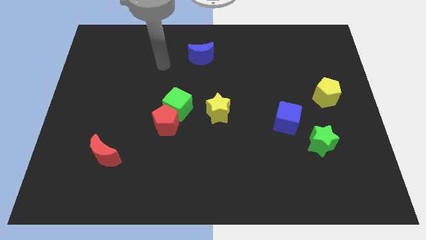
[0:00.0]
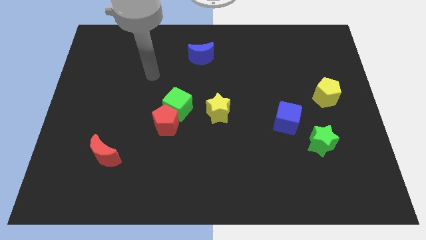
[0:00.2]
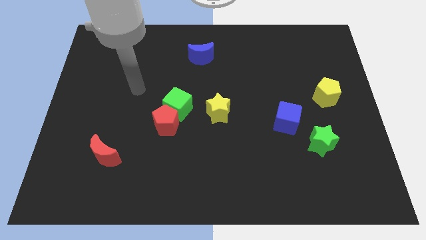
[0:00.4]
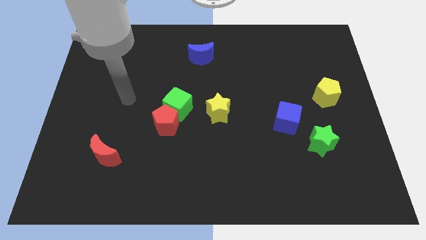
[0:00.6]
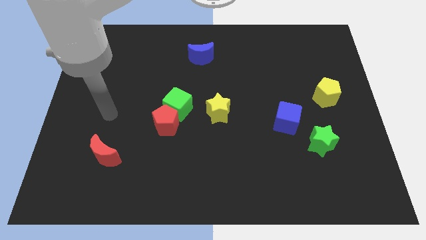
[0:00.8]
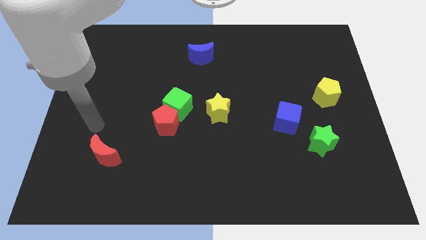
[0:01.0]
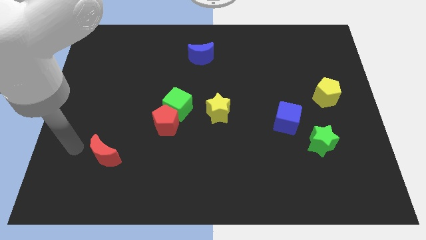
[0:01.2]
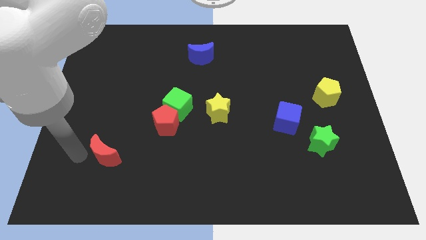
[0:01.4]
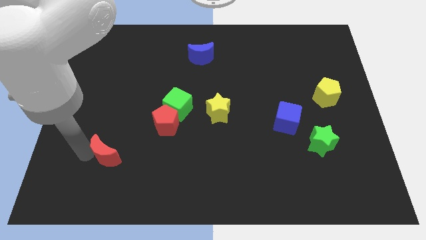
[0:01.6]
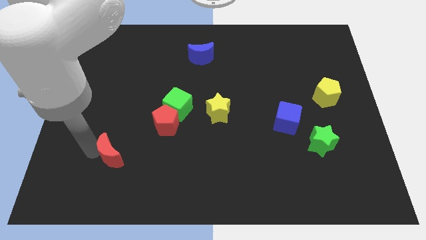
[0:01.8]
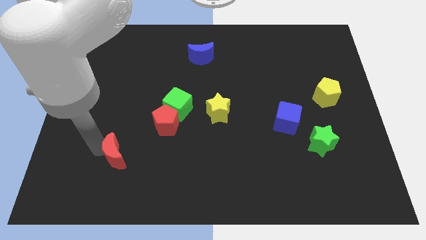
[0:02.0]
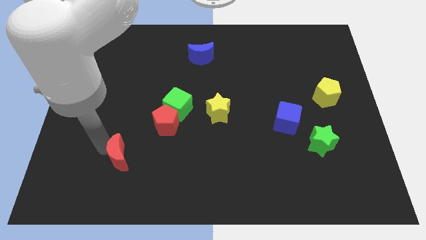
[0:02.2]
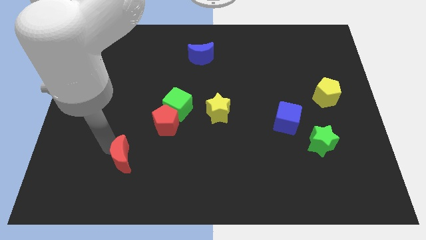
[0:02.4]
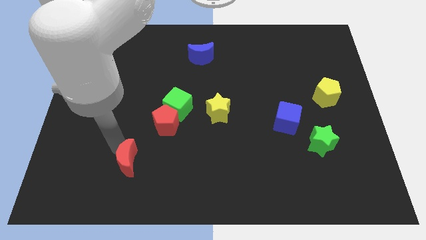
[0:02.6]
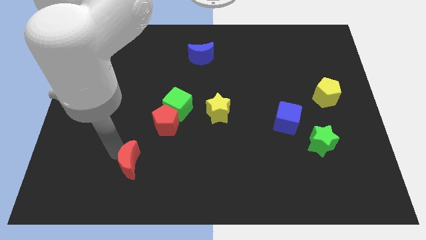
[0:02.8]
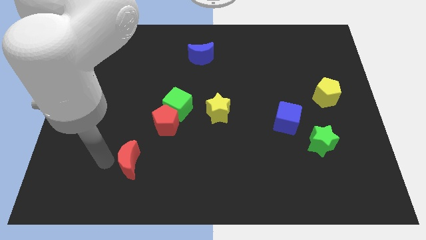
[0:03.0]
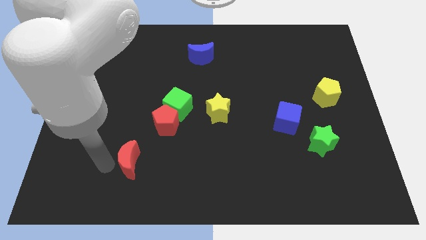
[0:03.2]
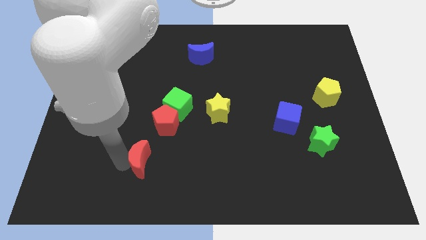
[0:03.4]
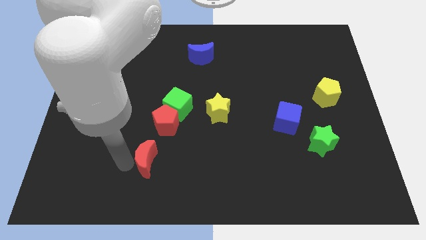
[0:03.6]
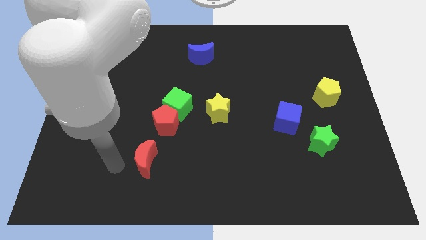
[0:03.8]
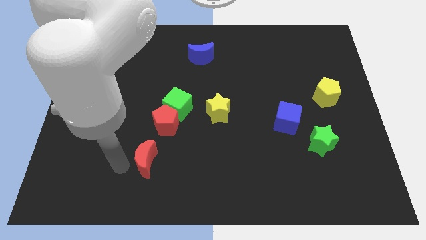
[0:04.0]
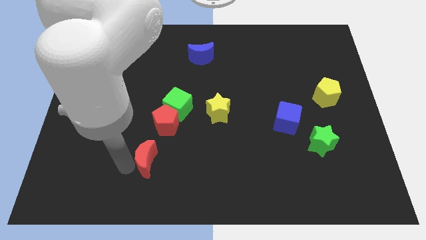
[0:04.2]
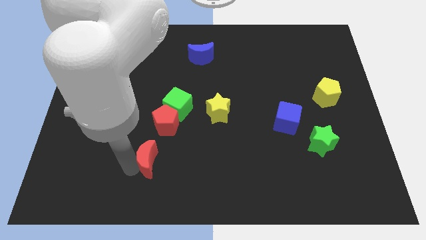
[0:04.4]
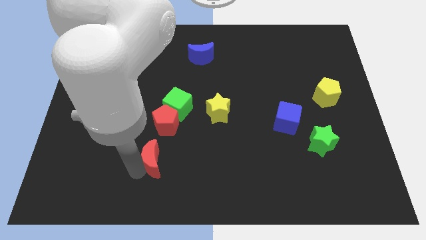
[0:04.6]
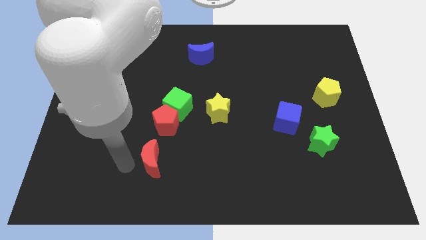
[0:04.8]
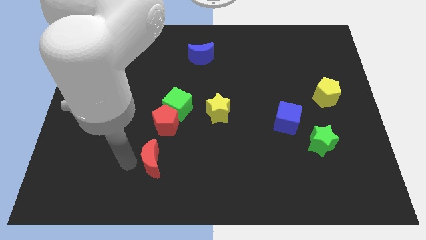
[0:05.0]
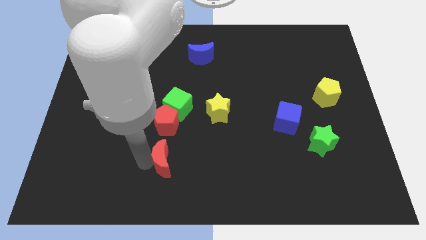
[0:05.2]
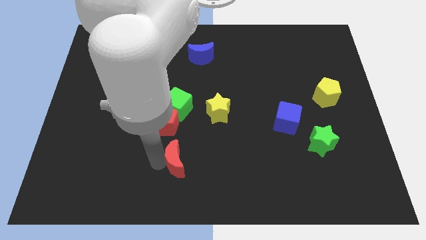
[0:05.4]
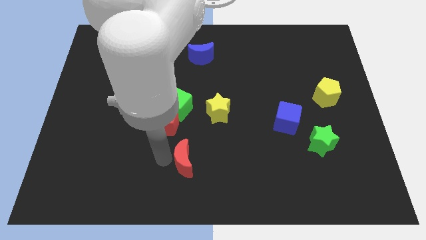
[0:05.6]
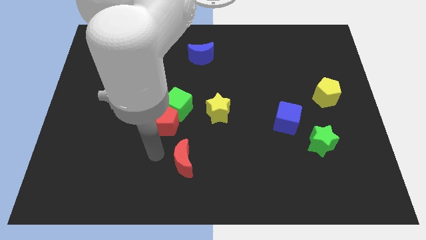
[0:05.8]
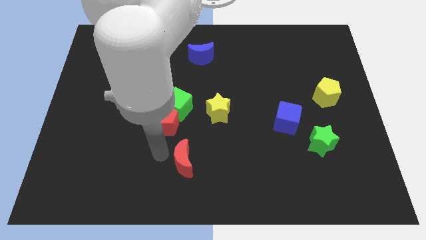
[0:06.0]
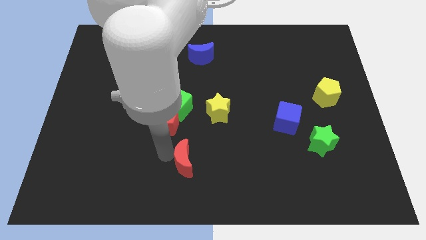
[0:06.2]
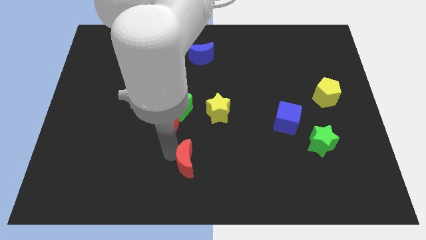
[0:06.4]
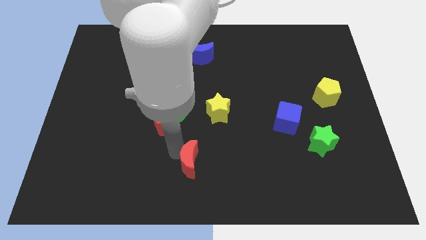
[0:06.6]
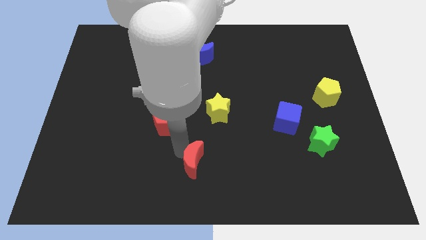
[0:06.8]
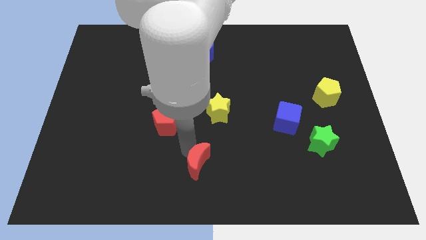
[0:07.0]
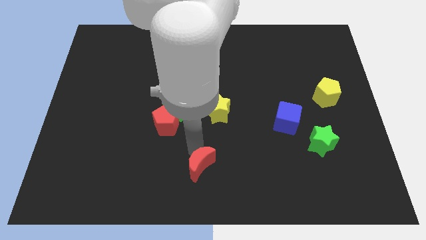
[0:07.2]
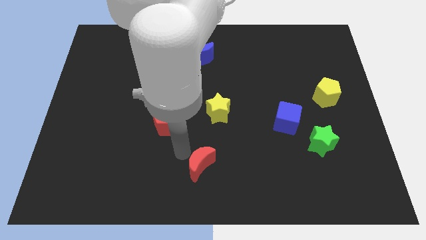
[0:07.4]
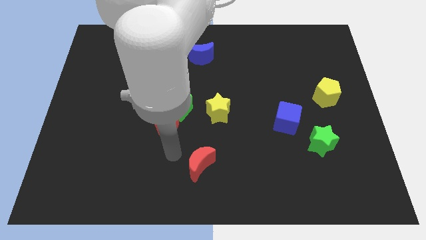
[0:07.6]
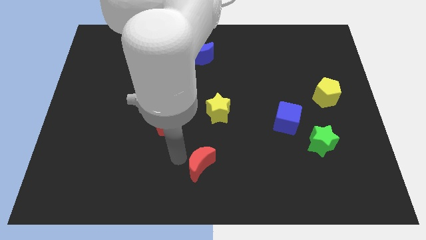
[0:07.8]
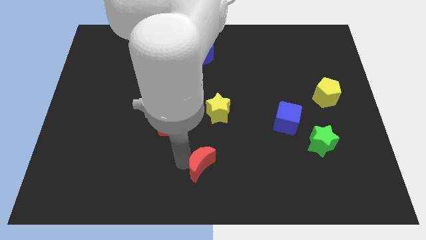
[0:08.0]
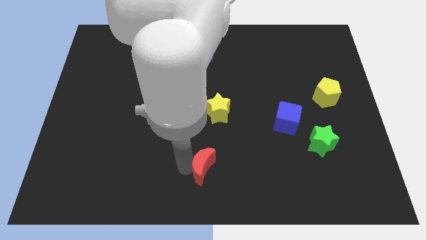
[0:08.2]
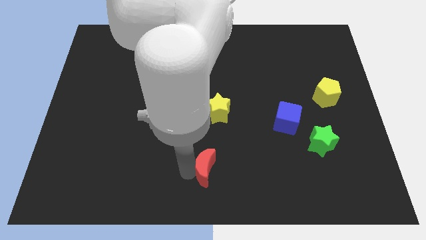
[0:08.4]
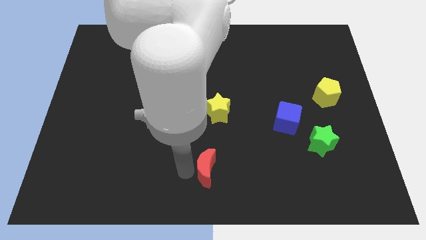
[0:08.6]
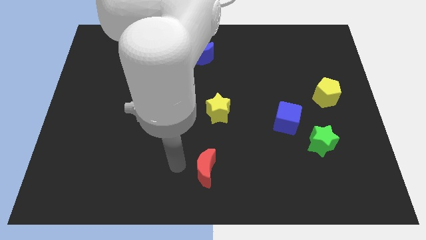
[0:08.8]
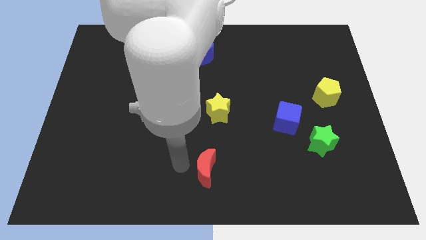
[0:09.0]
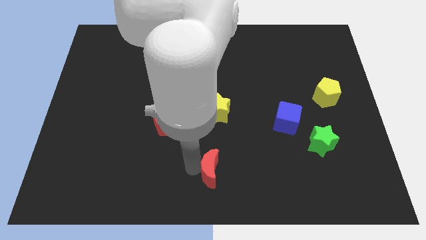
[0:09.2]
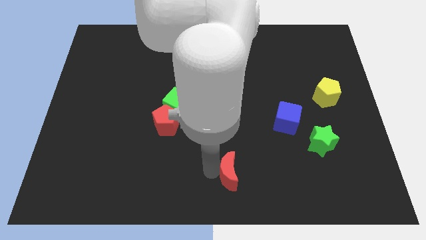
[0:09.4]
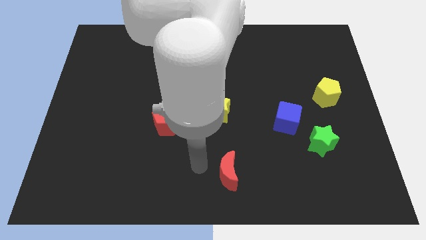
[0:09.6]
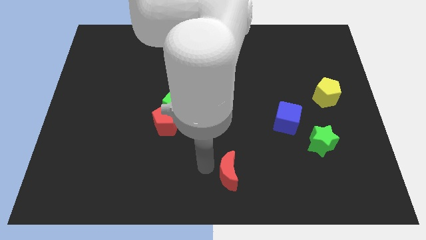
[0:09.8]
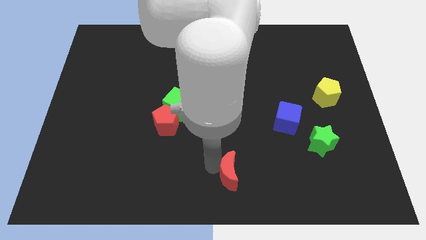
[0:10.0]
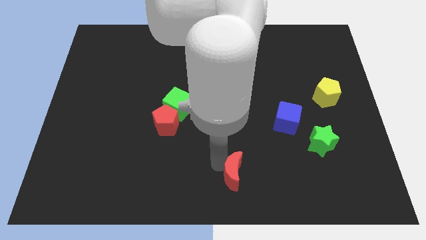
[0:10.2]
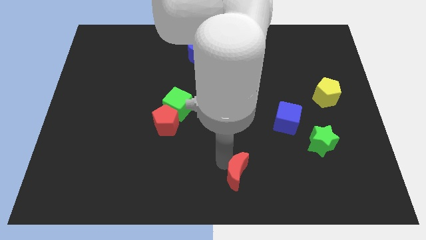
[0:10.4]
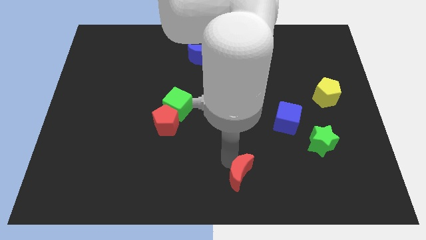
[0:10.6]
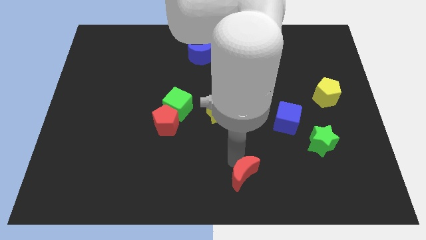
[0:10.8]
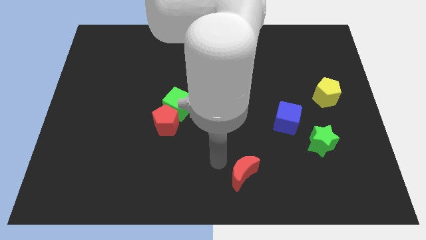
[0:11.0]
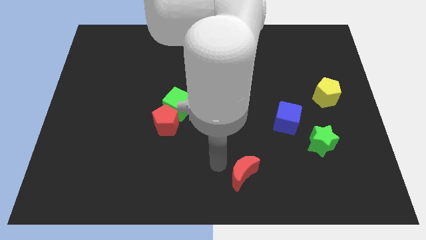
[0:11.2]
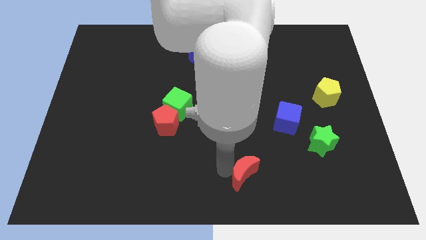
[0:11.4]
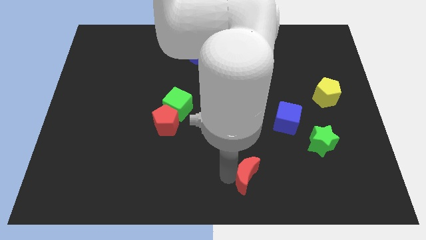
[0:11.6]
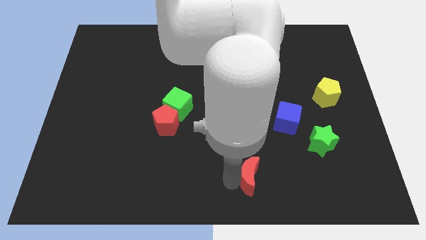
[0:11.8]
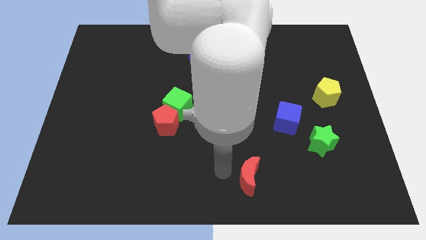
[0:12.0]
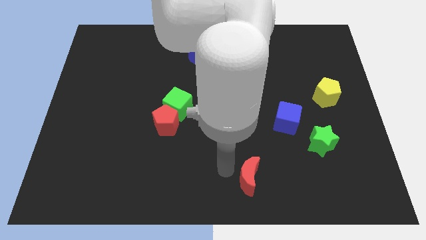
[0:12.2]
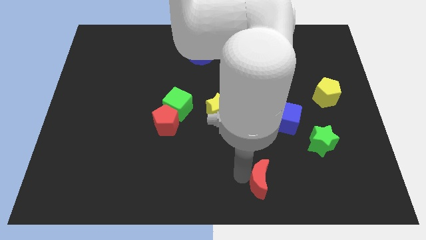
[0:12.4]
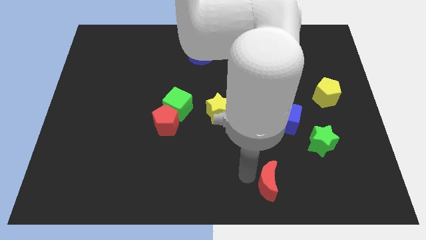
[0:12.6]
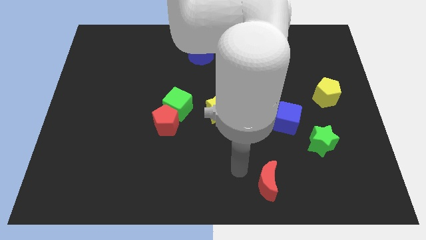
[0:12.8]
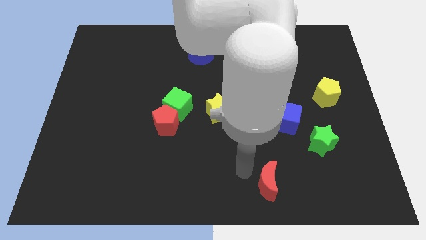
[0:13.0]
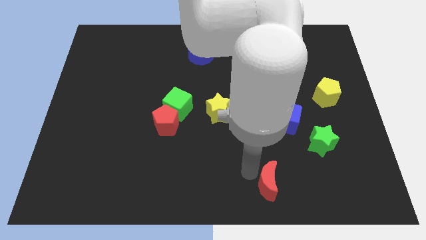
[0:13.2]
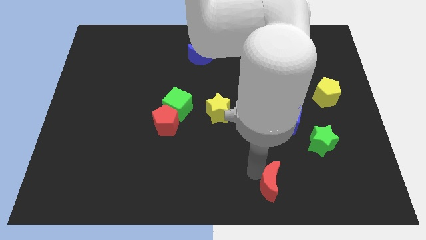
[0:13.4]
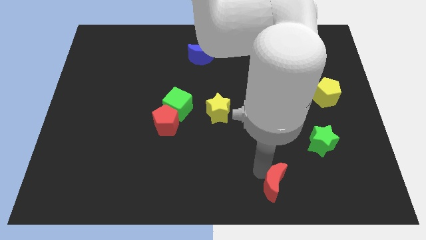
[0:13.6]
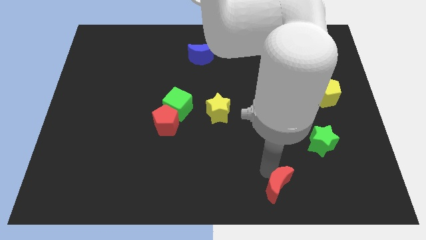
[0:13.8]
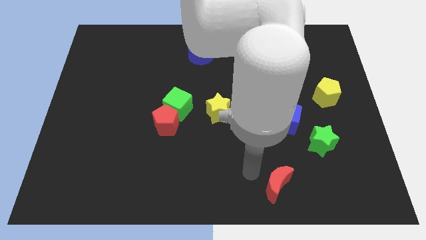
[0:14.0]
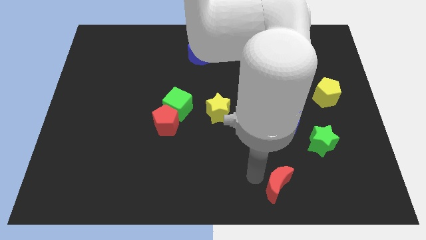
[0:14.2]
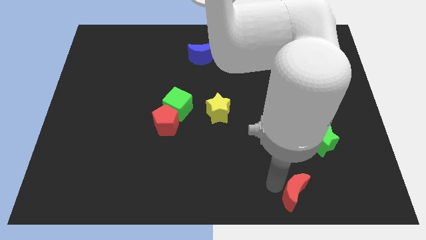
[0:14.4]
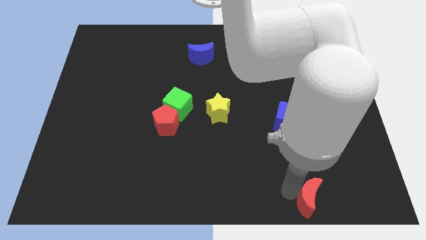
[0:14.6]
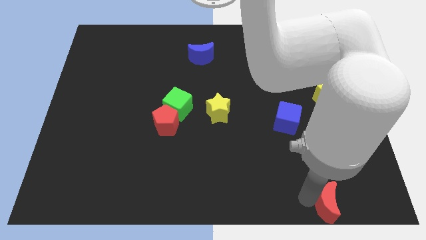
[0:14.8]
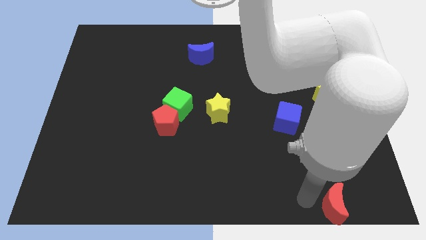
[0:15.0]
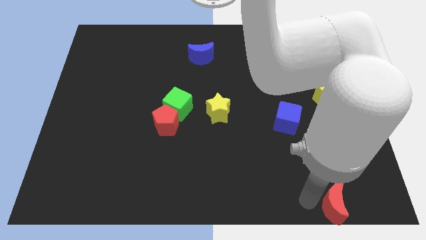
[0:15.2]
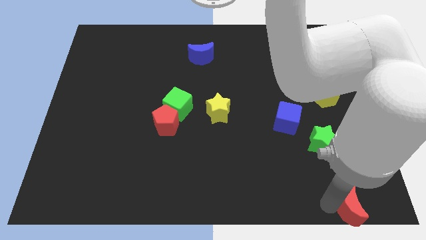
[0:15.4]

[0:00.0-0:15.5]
slide the red moon to the lower right corner
